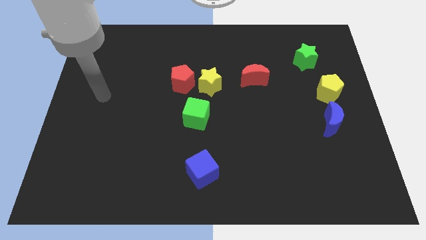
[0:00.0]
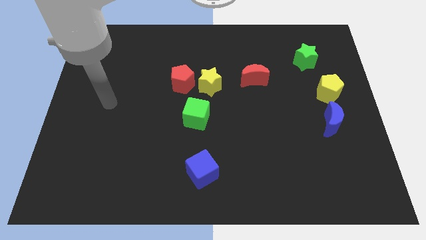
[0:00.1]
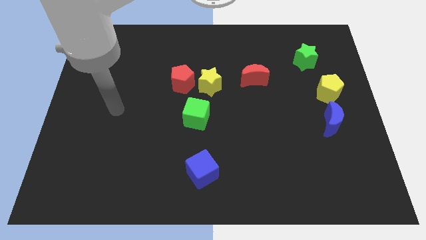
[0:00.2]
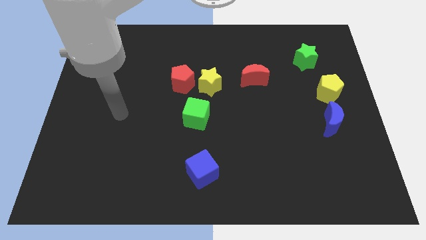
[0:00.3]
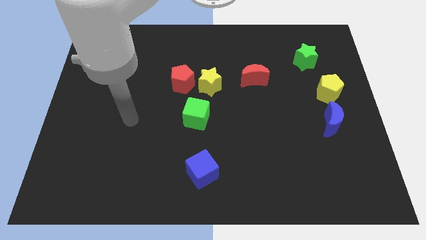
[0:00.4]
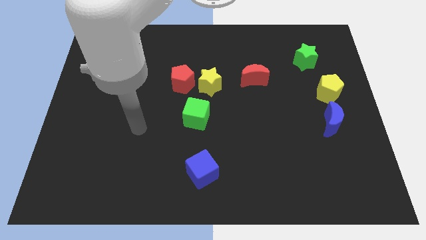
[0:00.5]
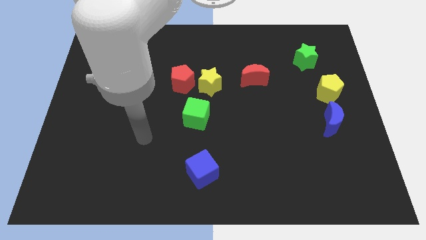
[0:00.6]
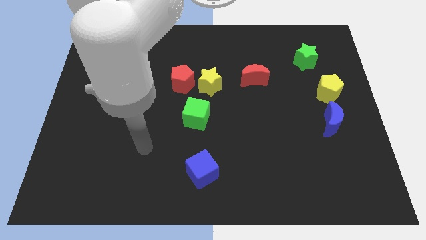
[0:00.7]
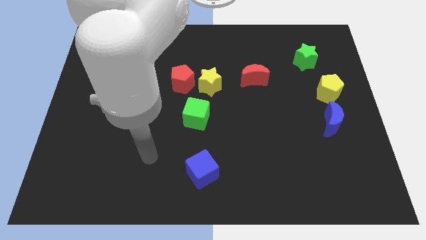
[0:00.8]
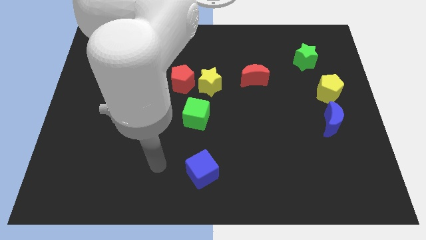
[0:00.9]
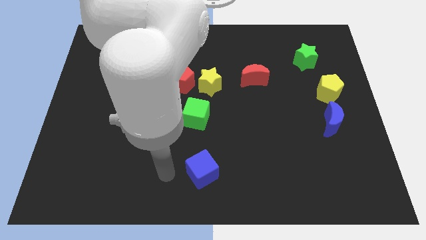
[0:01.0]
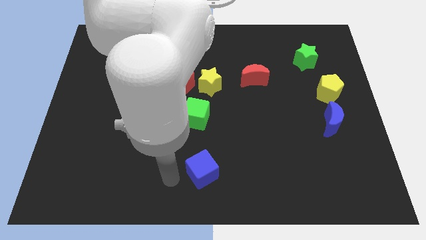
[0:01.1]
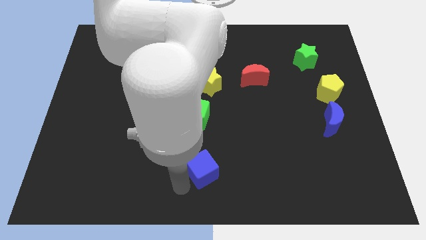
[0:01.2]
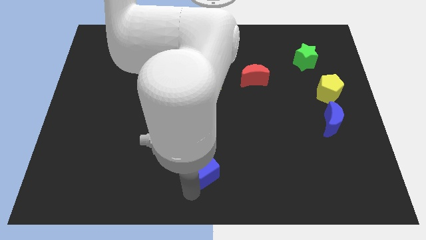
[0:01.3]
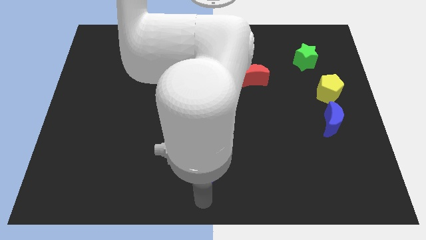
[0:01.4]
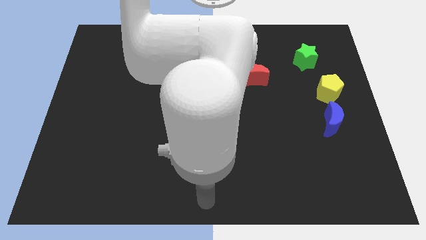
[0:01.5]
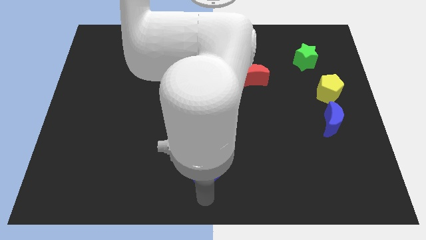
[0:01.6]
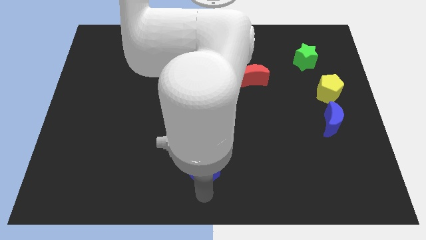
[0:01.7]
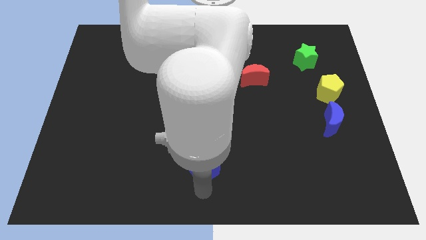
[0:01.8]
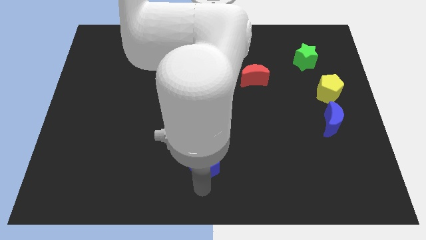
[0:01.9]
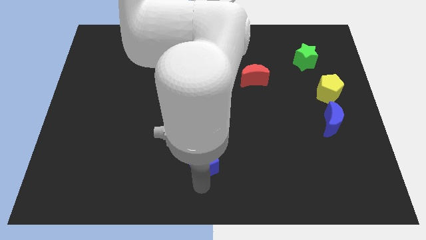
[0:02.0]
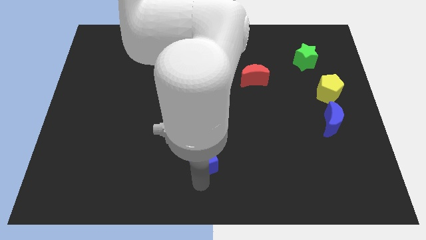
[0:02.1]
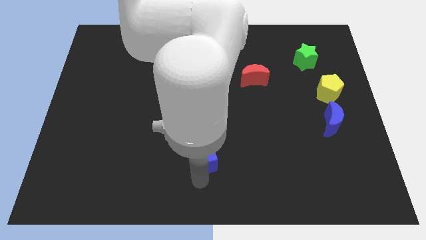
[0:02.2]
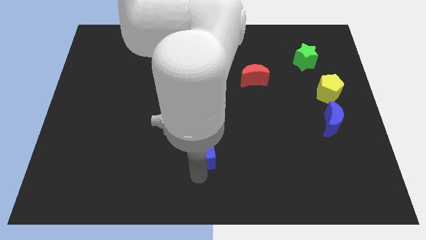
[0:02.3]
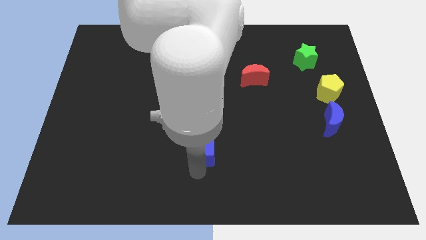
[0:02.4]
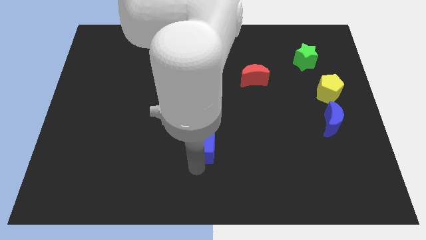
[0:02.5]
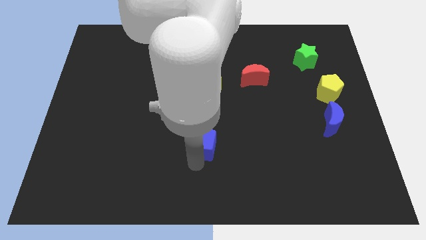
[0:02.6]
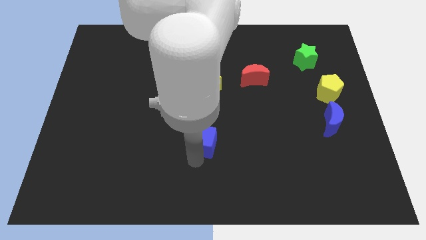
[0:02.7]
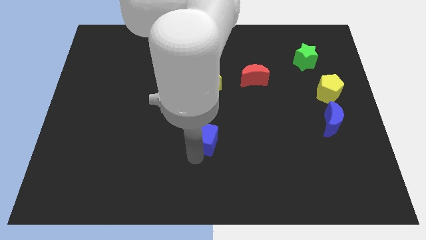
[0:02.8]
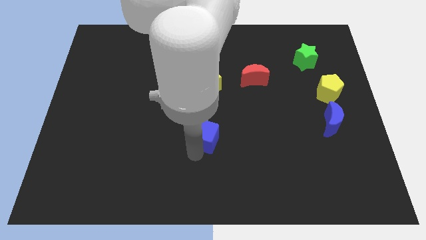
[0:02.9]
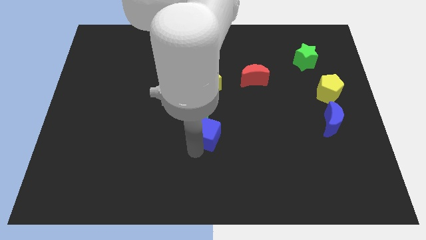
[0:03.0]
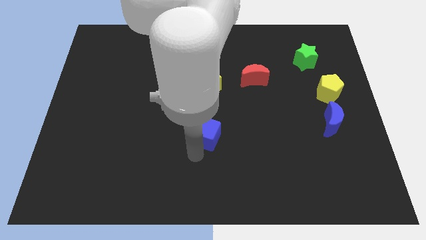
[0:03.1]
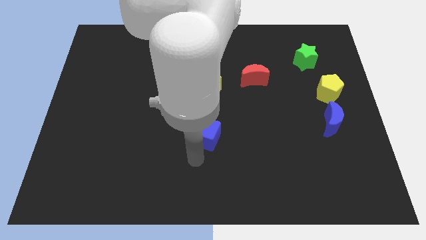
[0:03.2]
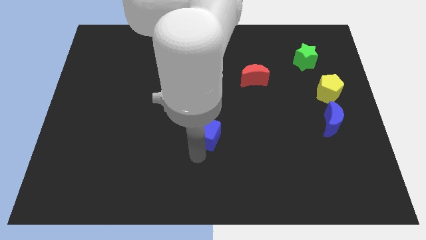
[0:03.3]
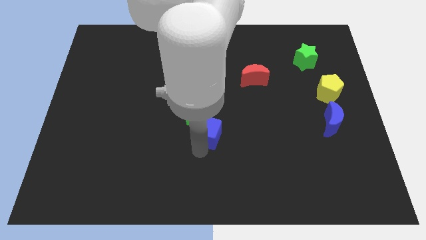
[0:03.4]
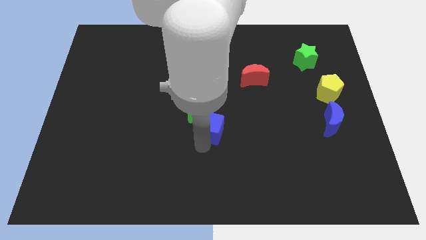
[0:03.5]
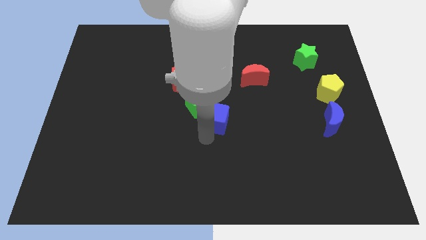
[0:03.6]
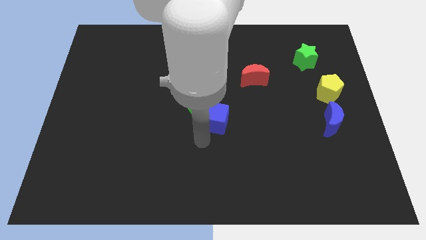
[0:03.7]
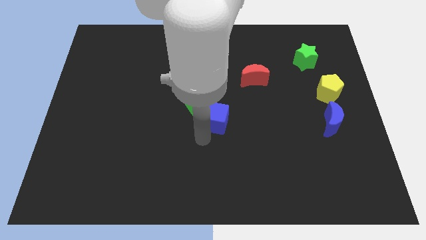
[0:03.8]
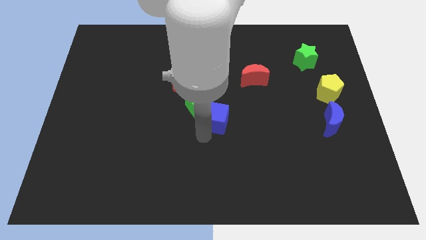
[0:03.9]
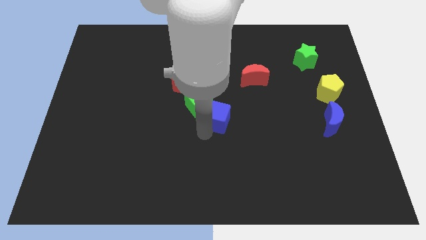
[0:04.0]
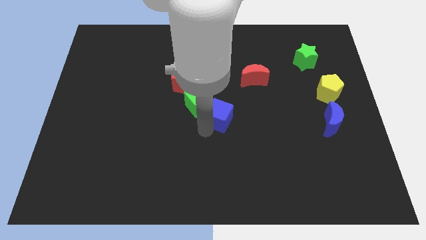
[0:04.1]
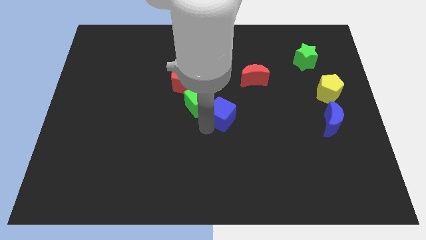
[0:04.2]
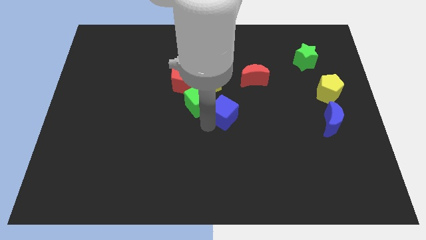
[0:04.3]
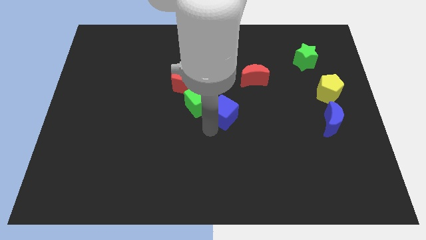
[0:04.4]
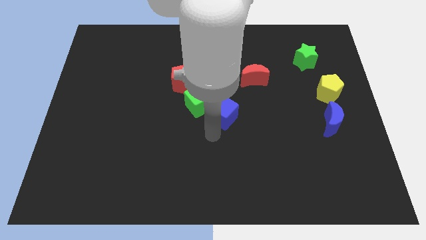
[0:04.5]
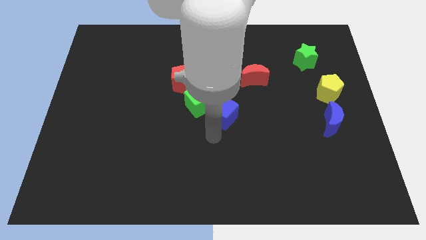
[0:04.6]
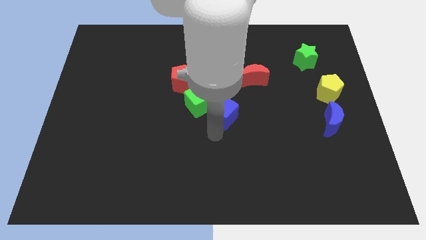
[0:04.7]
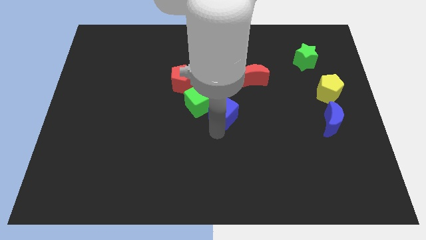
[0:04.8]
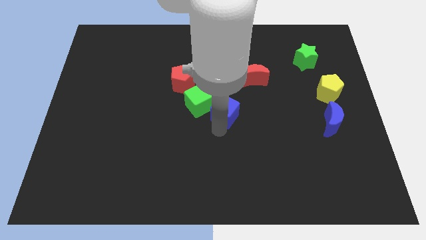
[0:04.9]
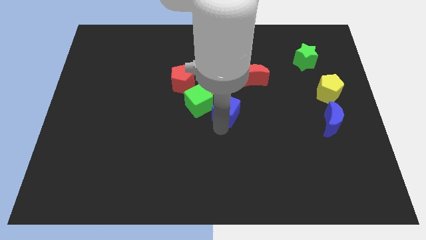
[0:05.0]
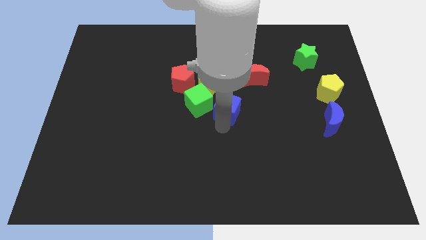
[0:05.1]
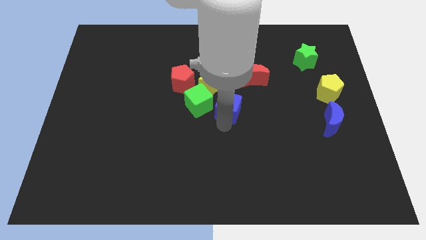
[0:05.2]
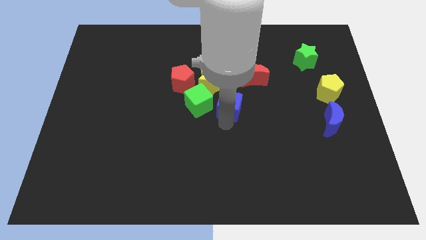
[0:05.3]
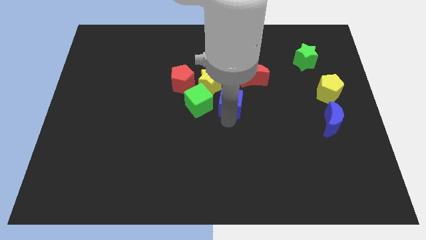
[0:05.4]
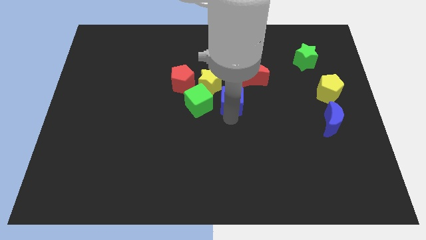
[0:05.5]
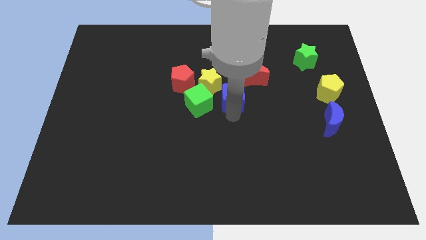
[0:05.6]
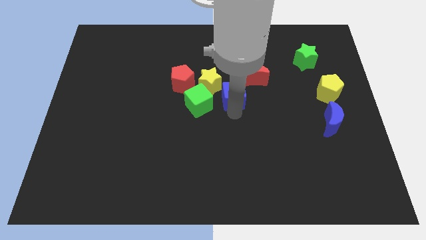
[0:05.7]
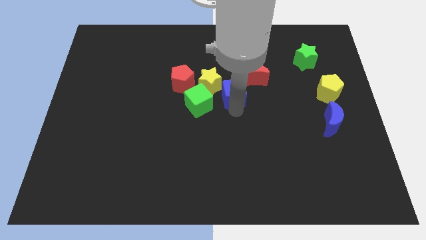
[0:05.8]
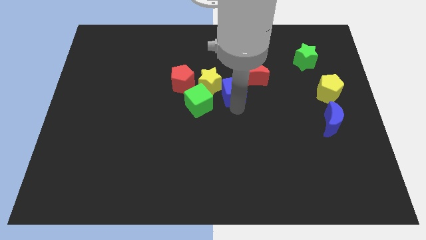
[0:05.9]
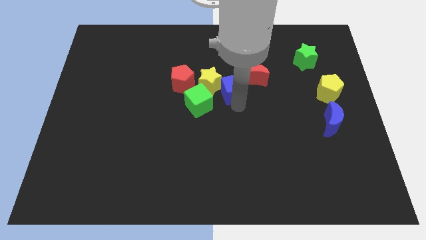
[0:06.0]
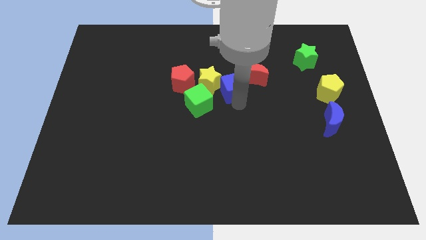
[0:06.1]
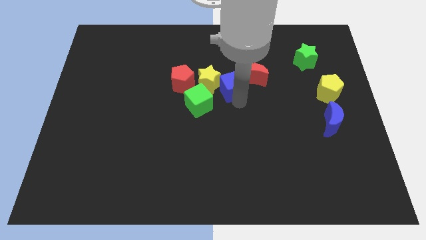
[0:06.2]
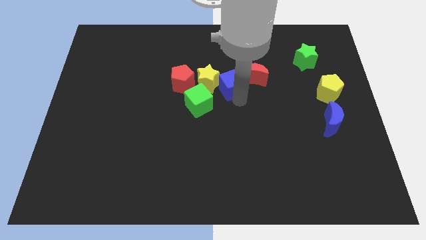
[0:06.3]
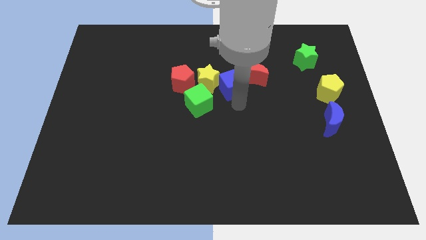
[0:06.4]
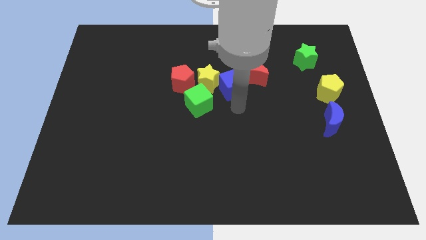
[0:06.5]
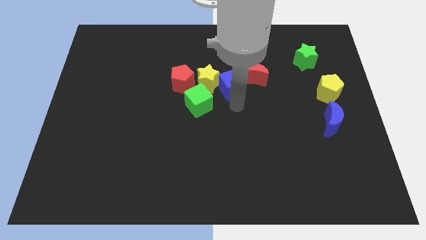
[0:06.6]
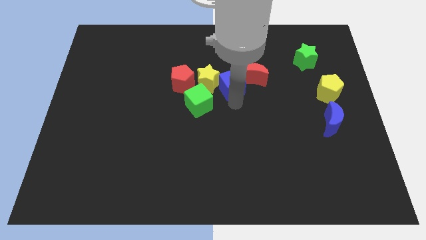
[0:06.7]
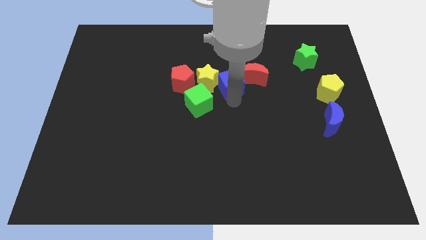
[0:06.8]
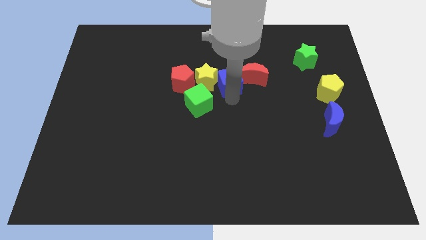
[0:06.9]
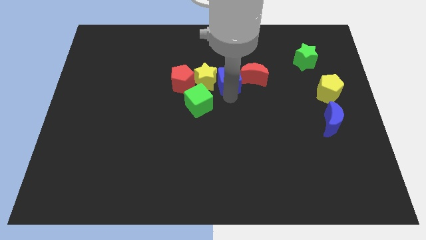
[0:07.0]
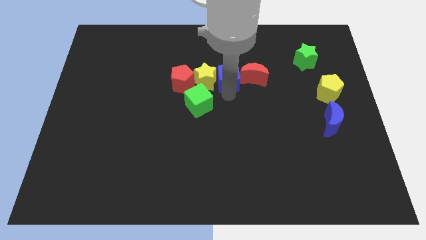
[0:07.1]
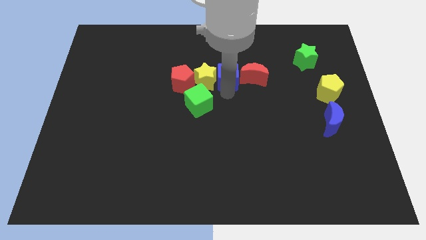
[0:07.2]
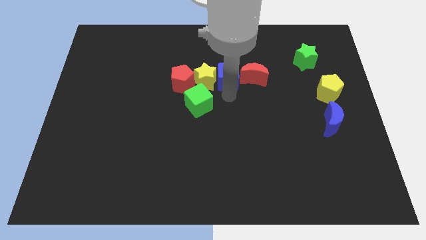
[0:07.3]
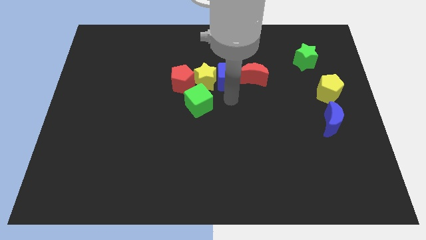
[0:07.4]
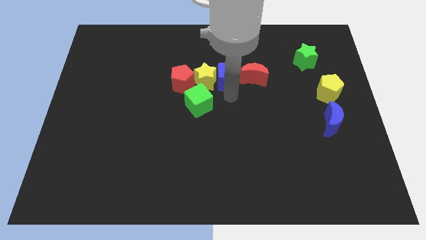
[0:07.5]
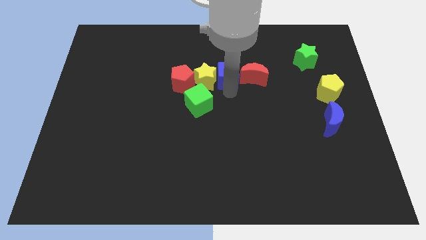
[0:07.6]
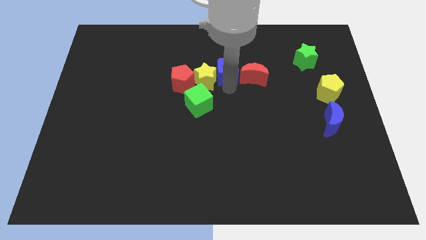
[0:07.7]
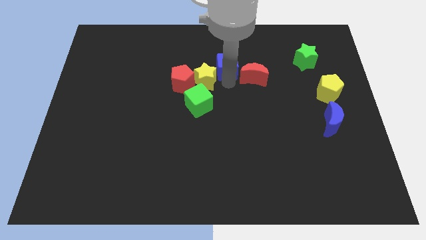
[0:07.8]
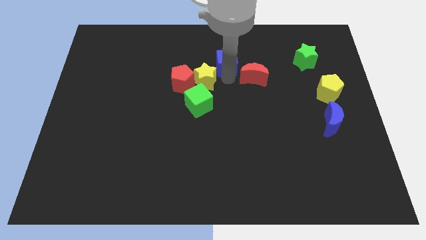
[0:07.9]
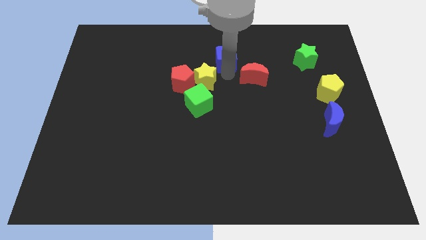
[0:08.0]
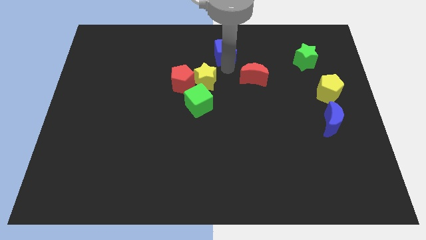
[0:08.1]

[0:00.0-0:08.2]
push the blue cube to the top side
